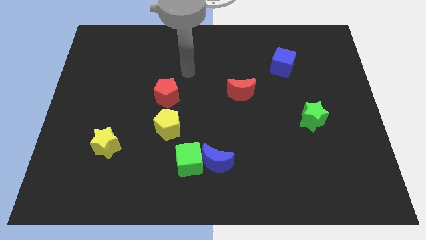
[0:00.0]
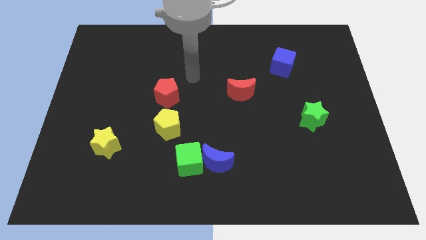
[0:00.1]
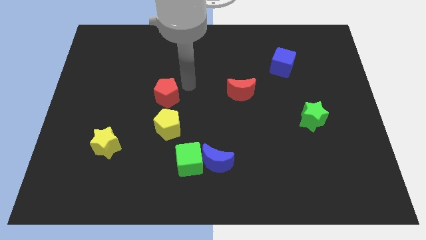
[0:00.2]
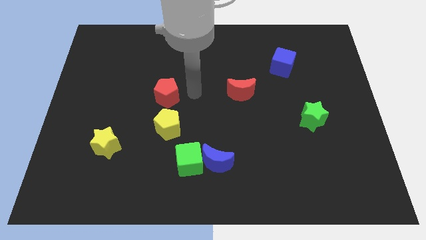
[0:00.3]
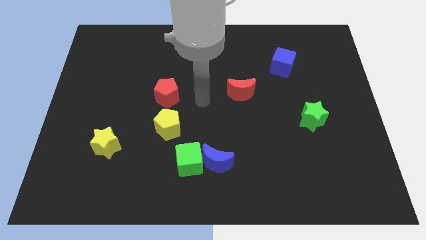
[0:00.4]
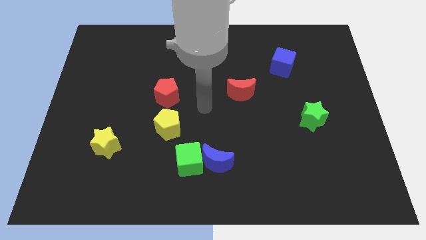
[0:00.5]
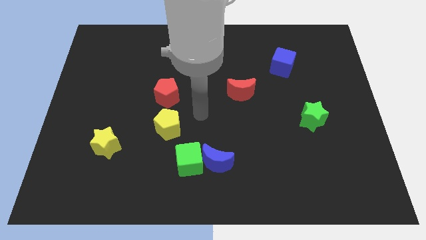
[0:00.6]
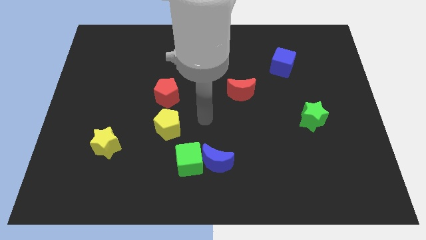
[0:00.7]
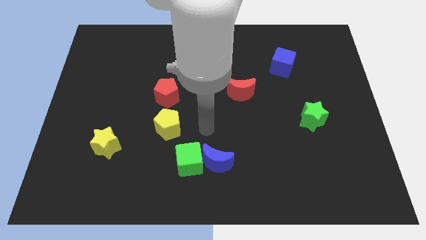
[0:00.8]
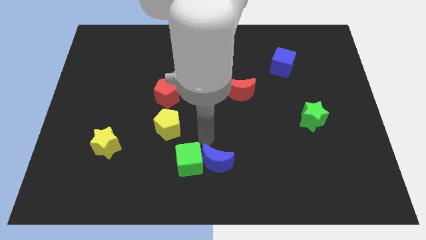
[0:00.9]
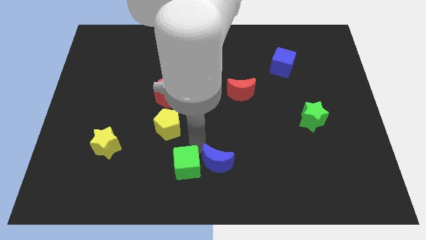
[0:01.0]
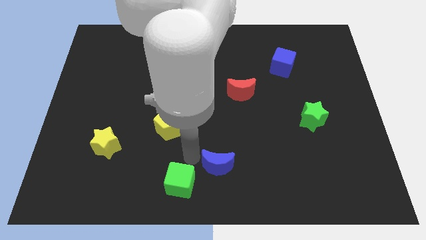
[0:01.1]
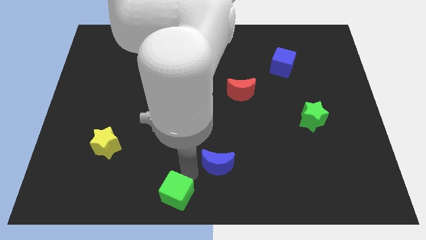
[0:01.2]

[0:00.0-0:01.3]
pull the blue moon apart from the green cube

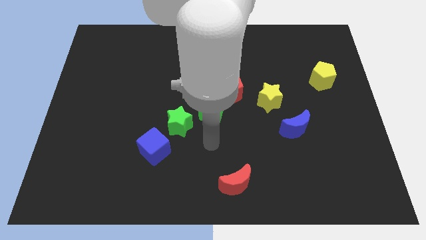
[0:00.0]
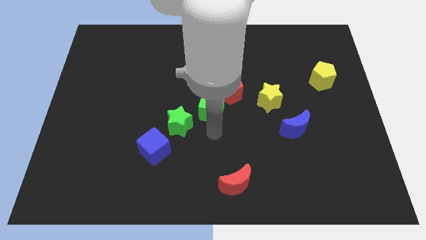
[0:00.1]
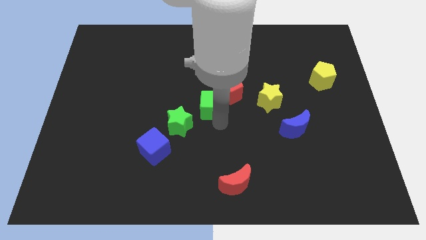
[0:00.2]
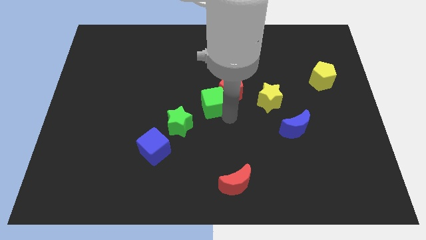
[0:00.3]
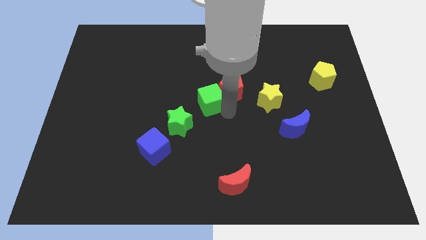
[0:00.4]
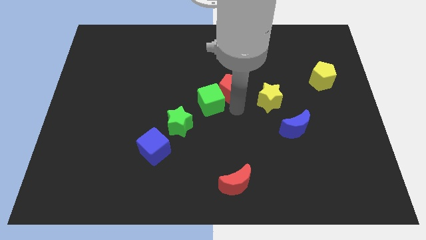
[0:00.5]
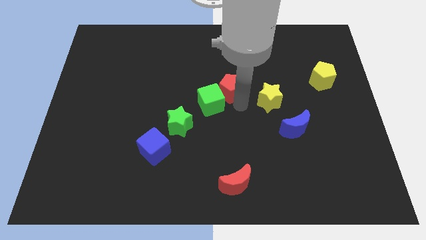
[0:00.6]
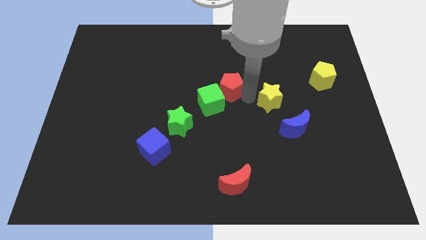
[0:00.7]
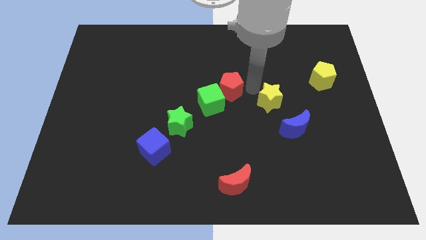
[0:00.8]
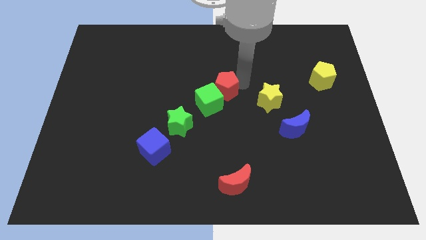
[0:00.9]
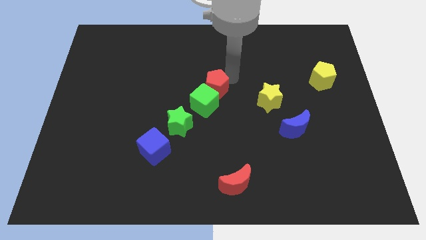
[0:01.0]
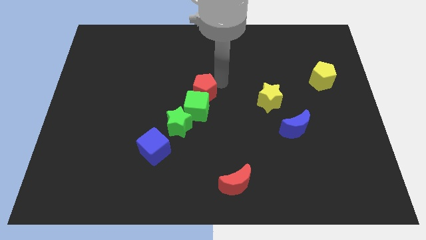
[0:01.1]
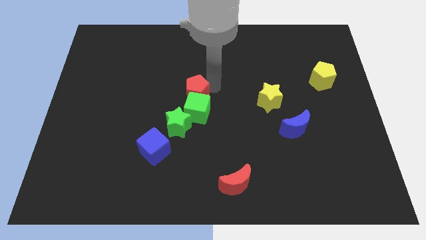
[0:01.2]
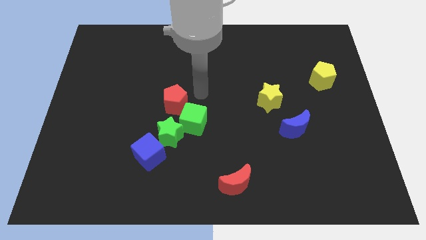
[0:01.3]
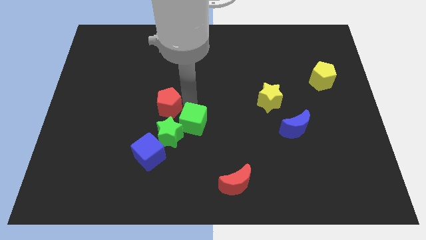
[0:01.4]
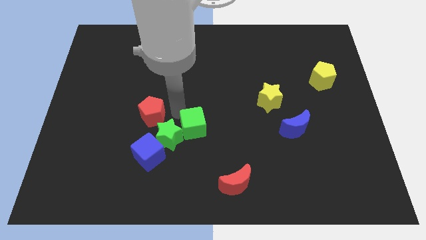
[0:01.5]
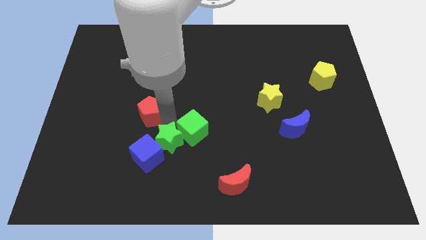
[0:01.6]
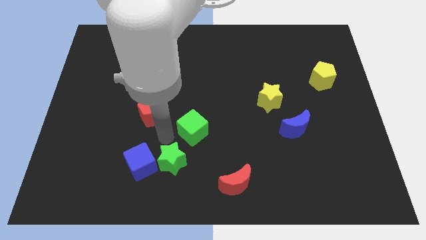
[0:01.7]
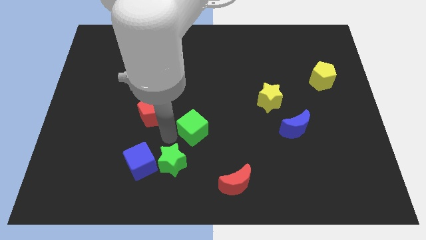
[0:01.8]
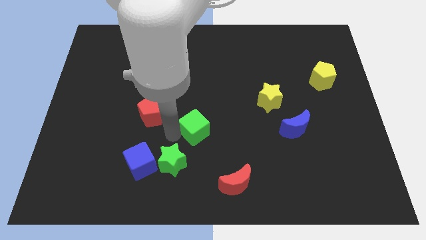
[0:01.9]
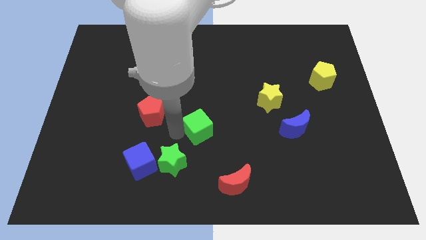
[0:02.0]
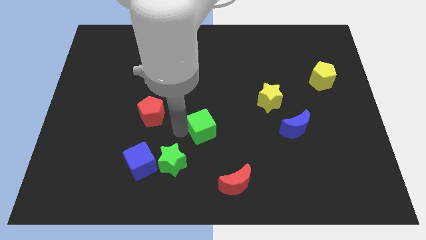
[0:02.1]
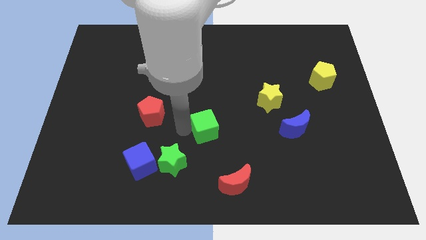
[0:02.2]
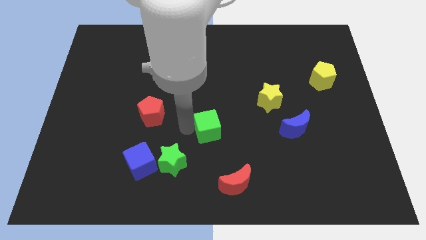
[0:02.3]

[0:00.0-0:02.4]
move the green cube away from the red pentagon and green star

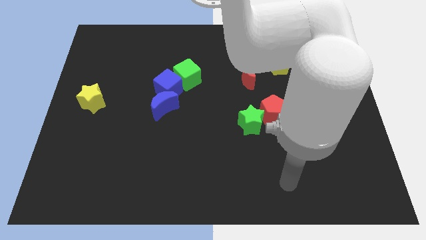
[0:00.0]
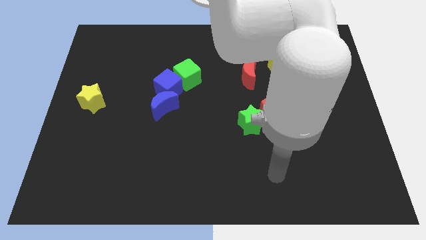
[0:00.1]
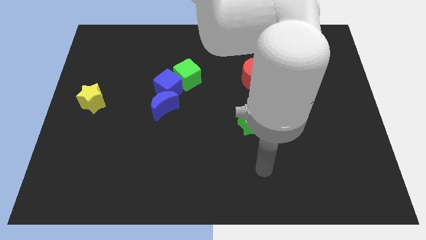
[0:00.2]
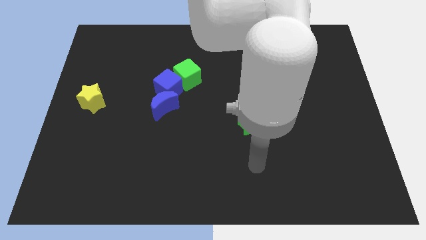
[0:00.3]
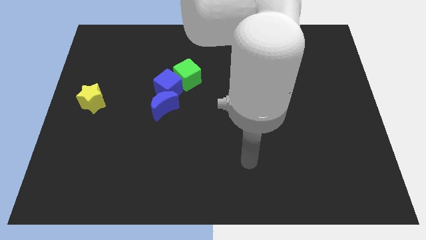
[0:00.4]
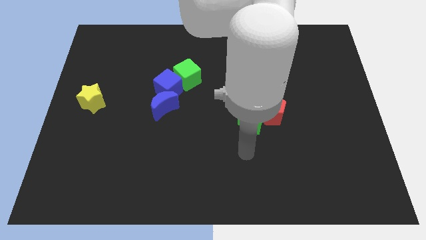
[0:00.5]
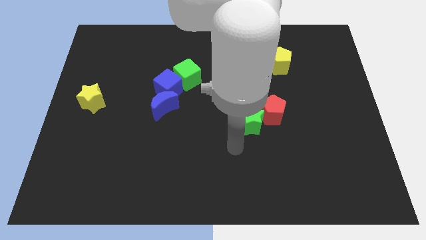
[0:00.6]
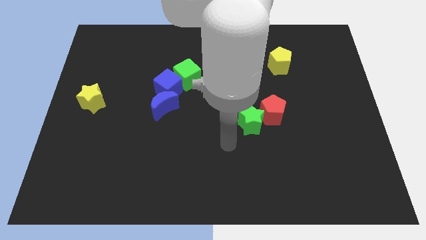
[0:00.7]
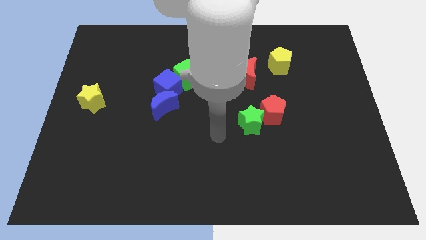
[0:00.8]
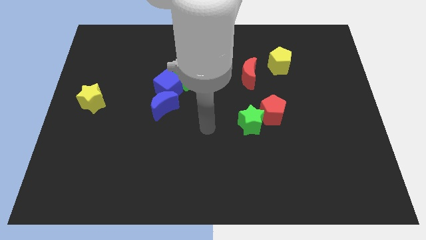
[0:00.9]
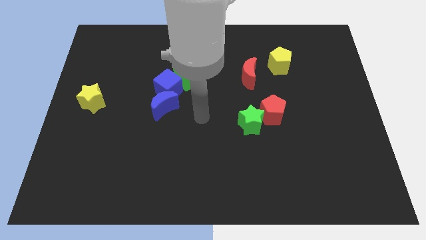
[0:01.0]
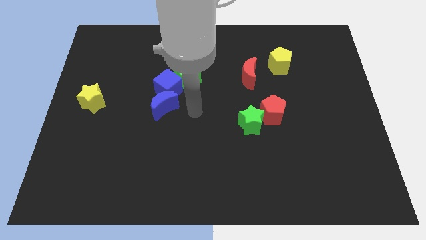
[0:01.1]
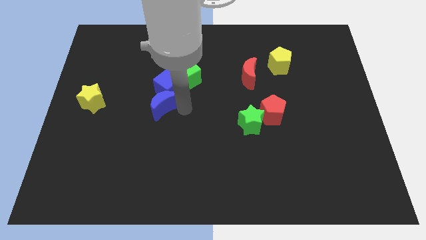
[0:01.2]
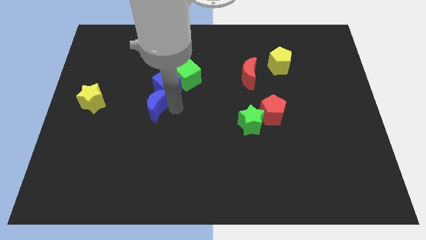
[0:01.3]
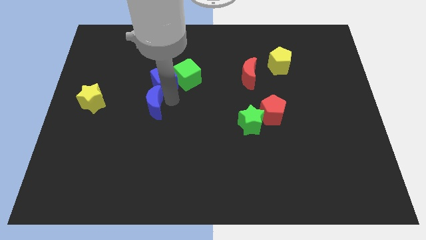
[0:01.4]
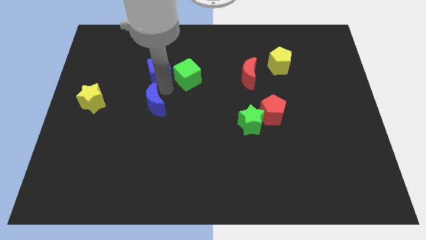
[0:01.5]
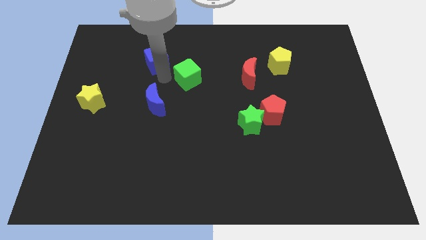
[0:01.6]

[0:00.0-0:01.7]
pull the green cube apart from the blue cube

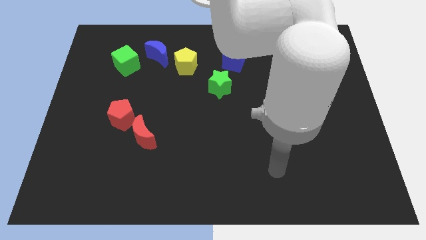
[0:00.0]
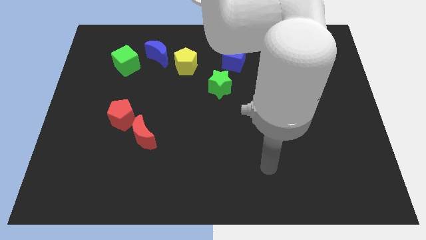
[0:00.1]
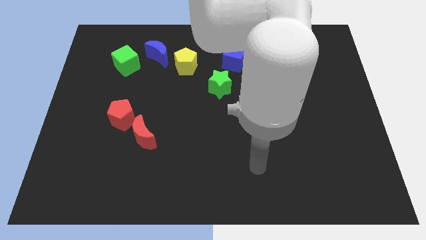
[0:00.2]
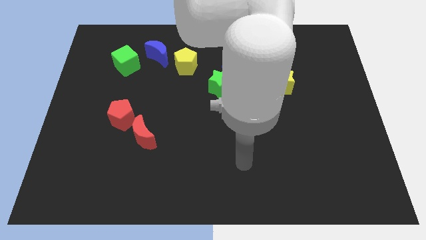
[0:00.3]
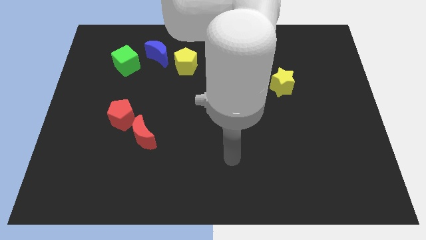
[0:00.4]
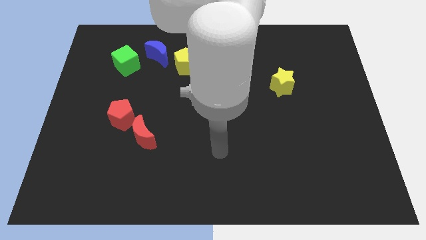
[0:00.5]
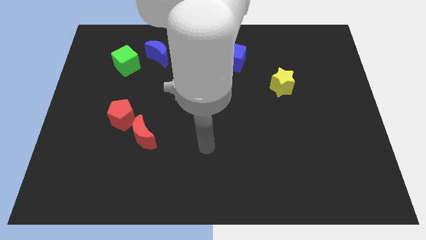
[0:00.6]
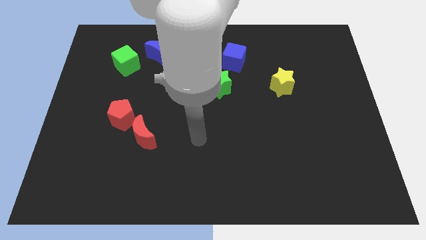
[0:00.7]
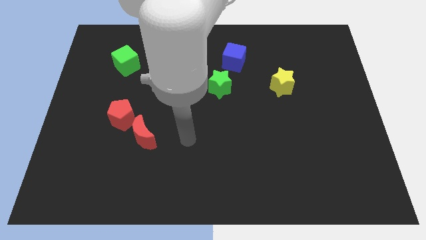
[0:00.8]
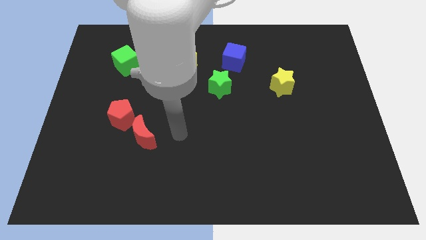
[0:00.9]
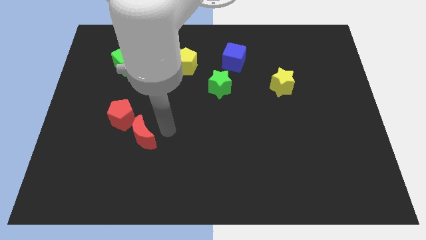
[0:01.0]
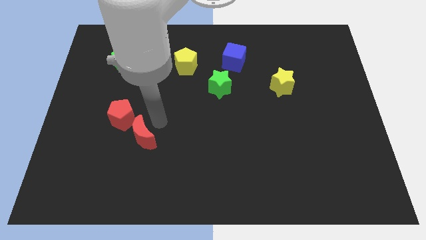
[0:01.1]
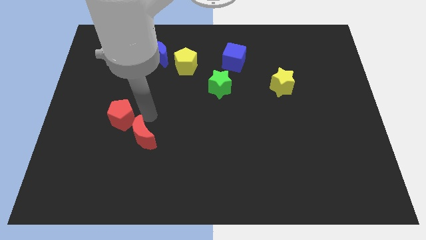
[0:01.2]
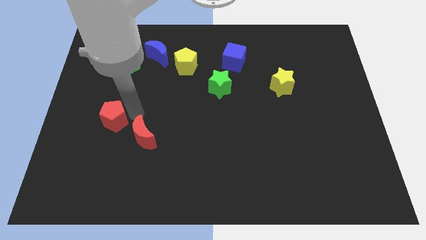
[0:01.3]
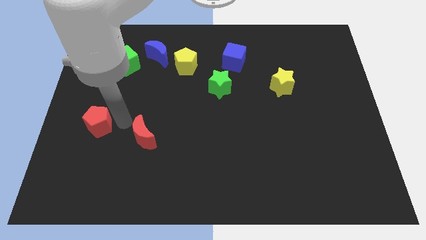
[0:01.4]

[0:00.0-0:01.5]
pull the red moon apart from the red pentagon

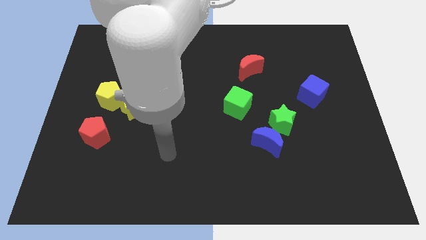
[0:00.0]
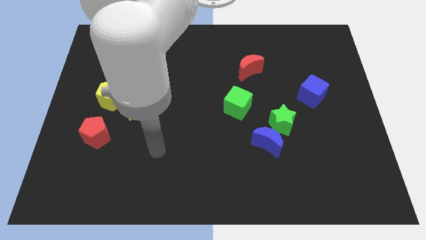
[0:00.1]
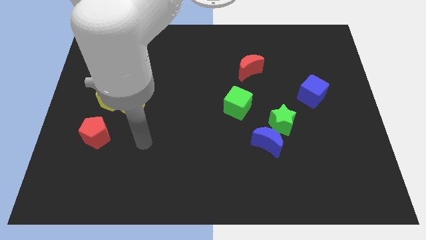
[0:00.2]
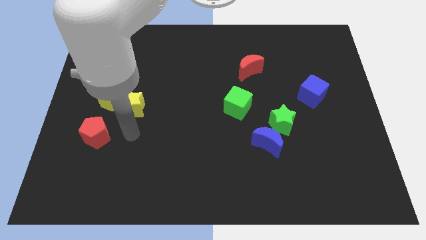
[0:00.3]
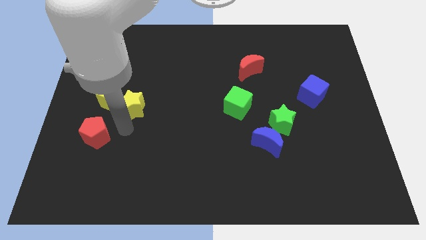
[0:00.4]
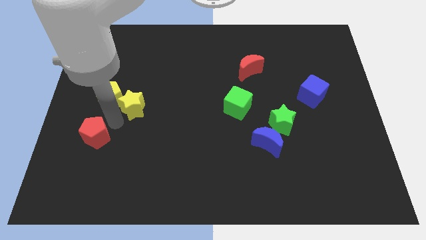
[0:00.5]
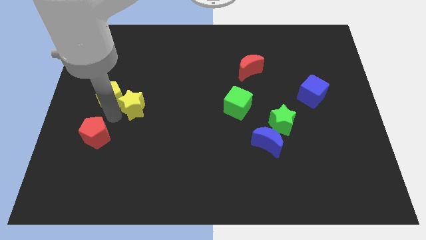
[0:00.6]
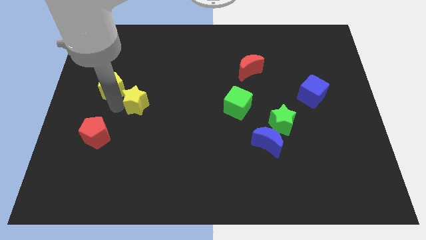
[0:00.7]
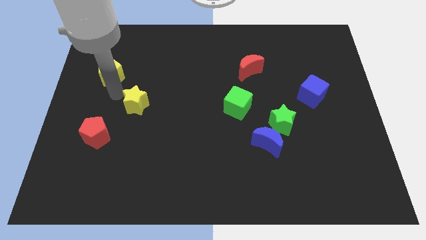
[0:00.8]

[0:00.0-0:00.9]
separate the yellow star from the yellow pentagon

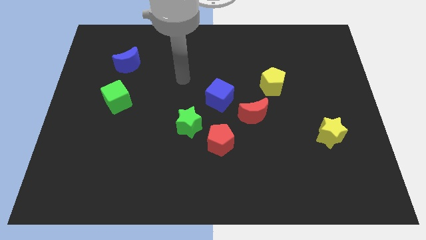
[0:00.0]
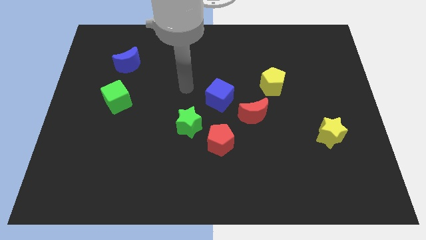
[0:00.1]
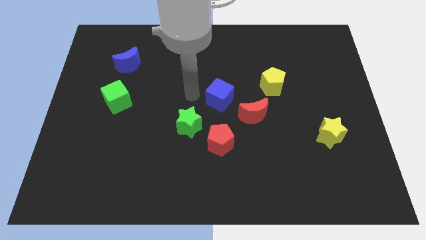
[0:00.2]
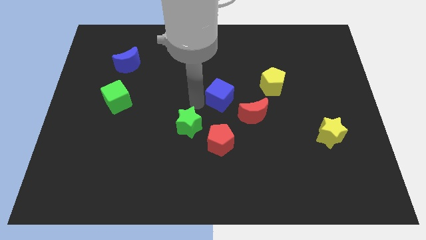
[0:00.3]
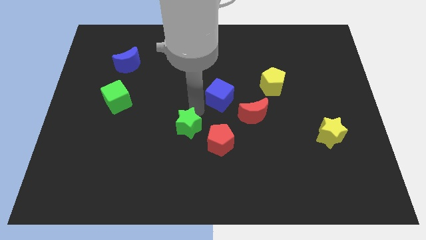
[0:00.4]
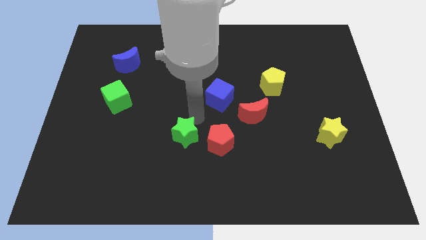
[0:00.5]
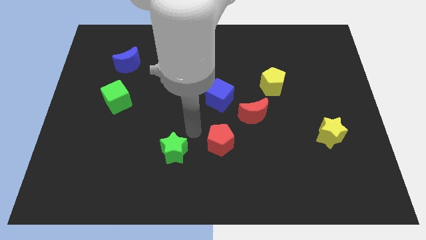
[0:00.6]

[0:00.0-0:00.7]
move the red pentagon away from the green star

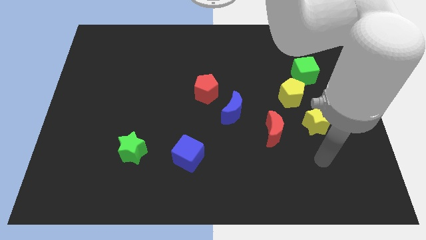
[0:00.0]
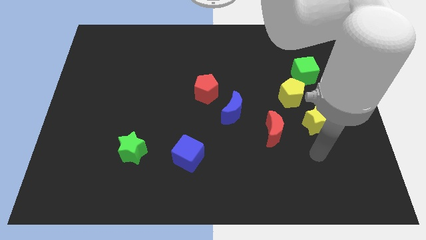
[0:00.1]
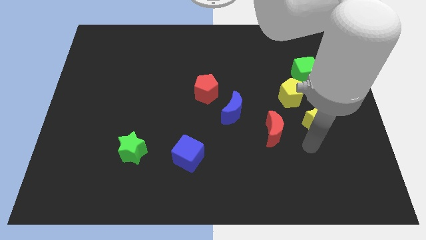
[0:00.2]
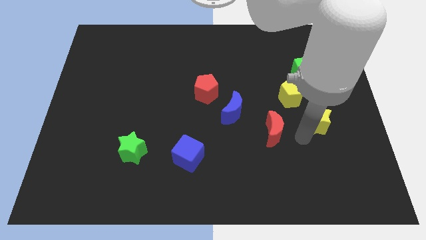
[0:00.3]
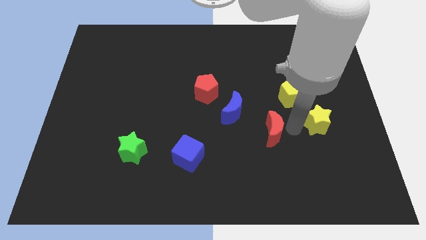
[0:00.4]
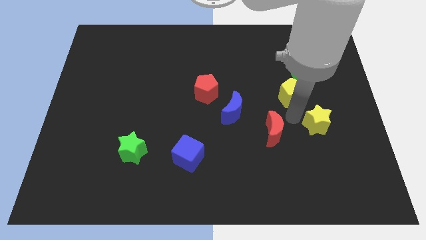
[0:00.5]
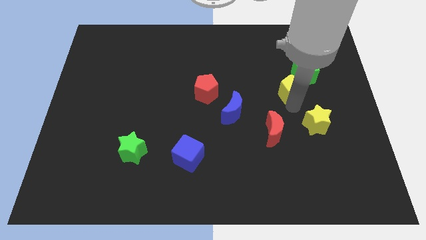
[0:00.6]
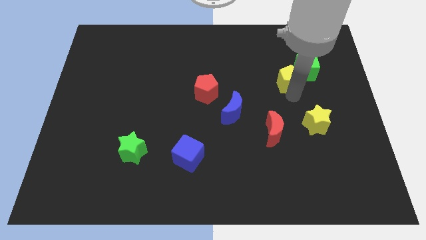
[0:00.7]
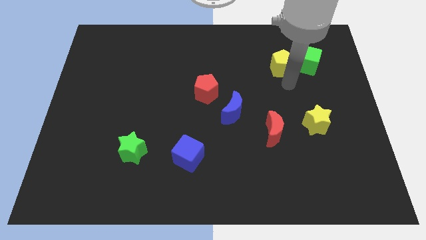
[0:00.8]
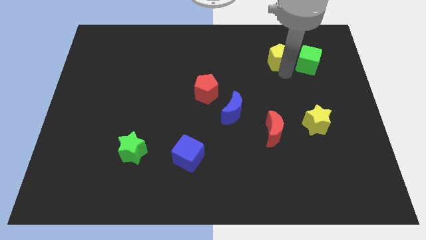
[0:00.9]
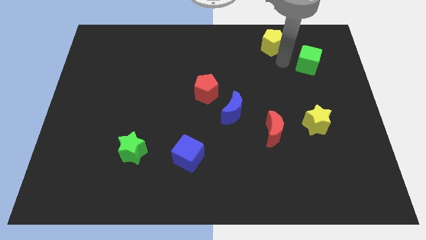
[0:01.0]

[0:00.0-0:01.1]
separate the green cube from the yellow pentagon
